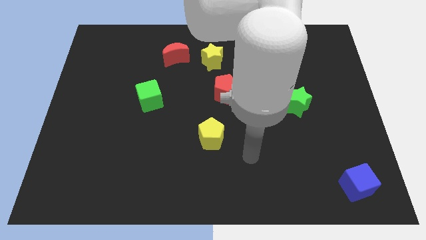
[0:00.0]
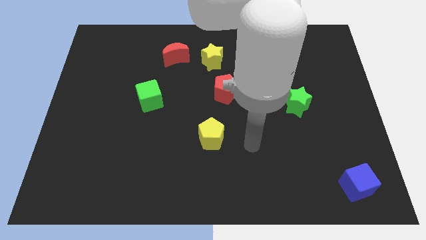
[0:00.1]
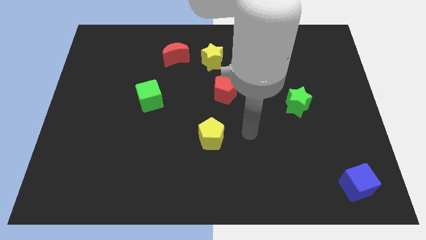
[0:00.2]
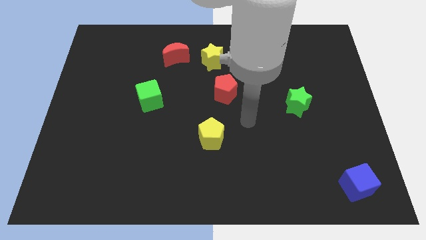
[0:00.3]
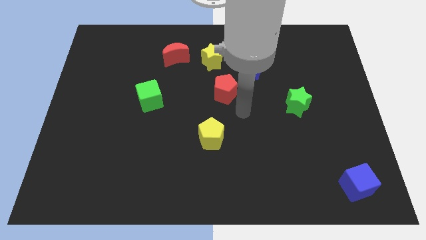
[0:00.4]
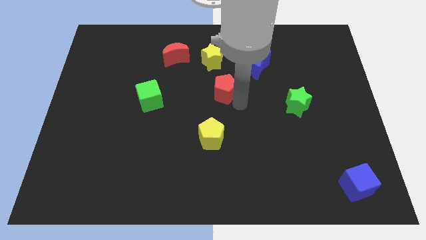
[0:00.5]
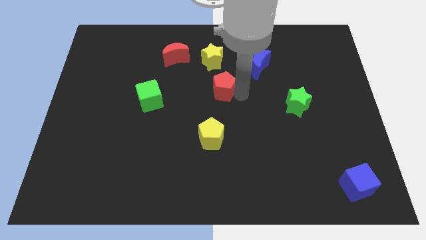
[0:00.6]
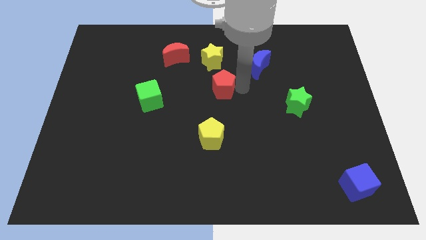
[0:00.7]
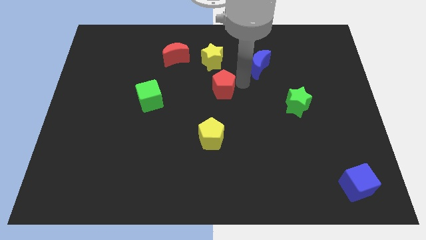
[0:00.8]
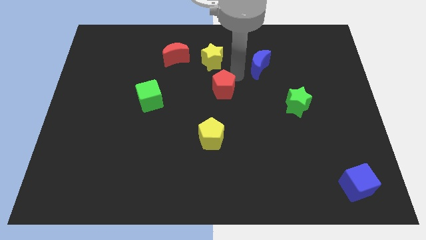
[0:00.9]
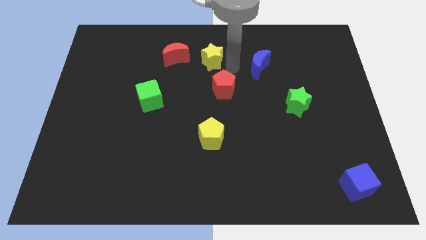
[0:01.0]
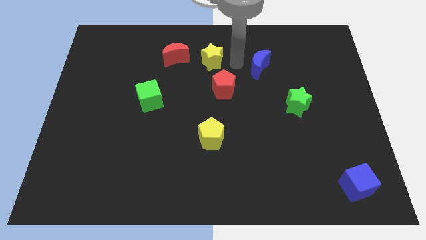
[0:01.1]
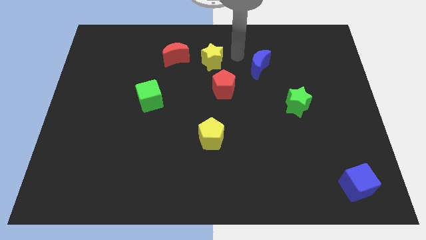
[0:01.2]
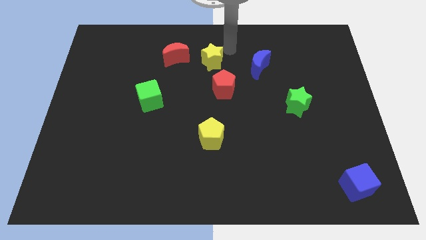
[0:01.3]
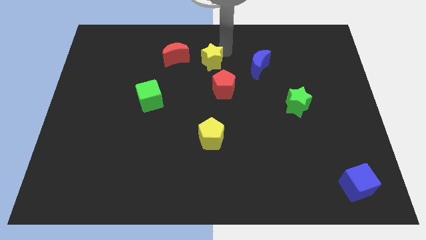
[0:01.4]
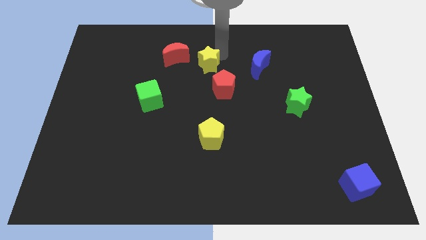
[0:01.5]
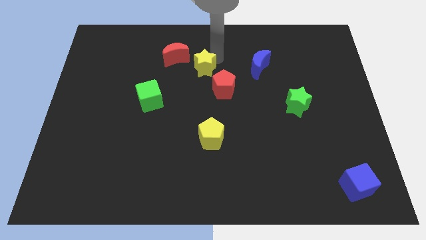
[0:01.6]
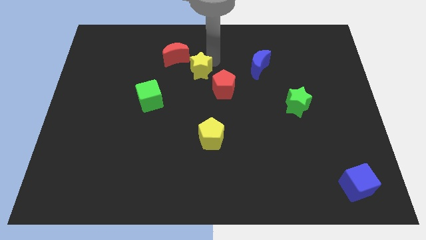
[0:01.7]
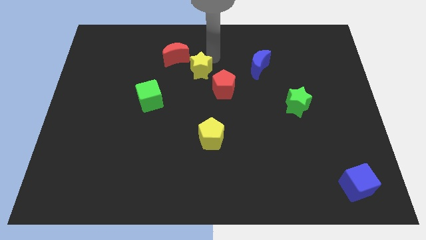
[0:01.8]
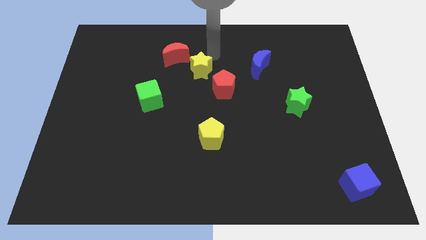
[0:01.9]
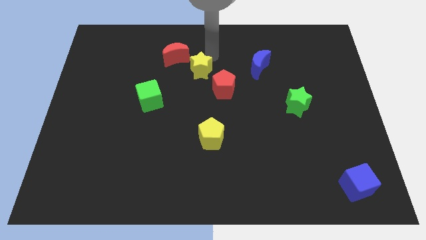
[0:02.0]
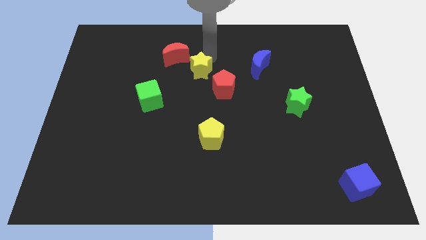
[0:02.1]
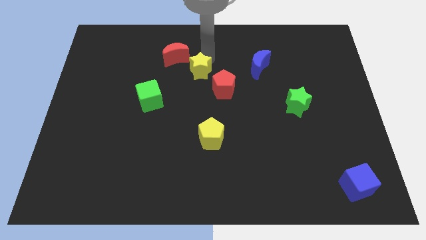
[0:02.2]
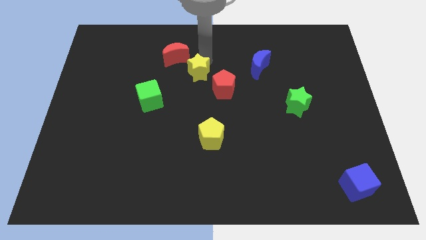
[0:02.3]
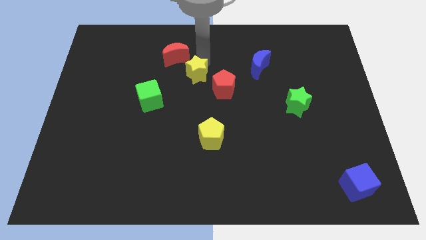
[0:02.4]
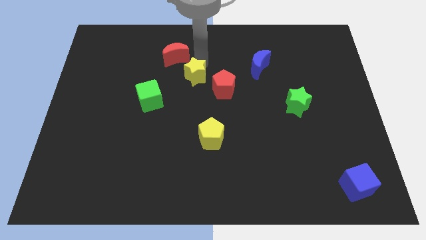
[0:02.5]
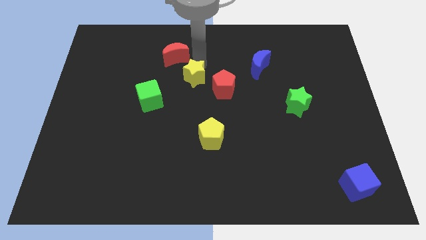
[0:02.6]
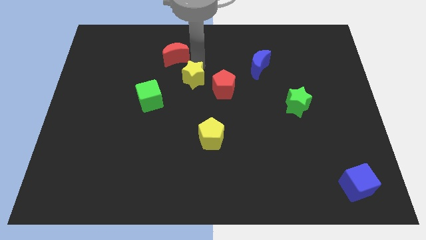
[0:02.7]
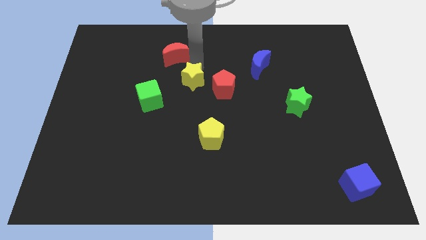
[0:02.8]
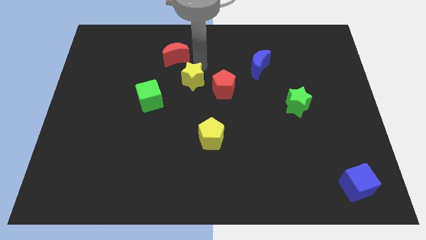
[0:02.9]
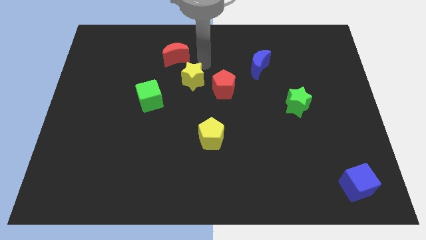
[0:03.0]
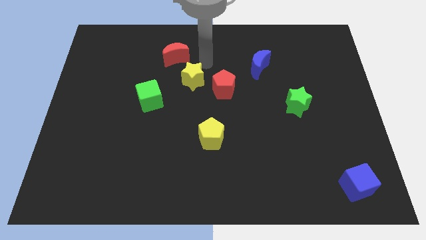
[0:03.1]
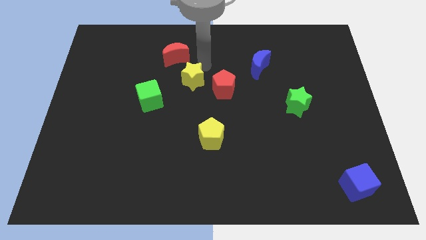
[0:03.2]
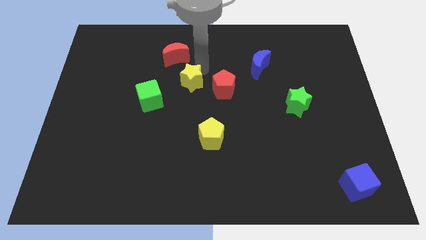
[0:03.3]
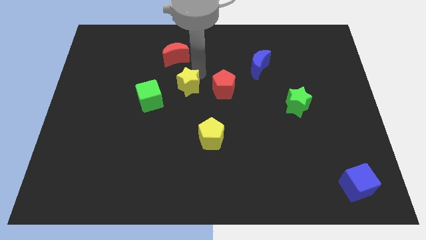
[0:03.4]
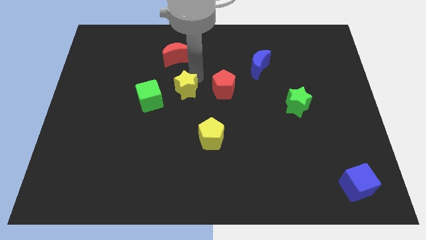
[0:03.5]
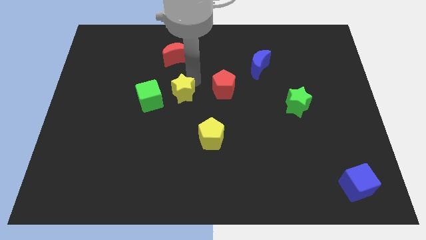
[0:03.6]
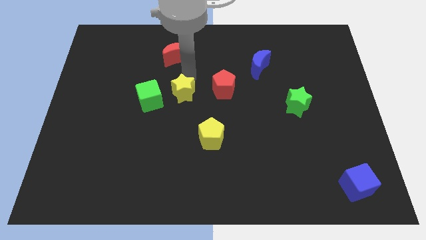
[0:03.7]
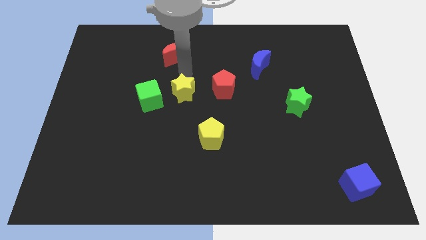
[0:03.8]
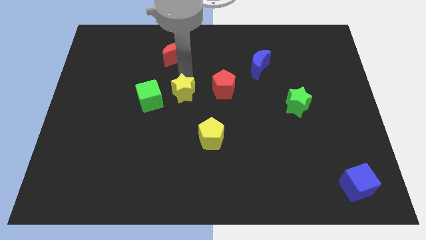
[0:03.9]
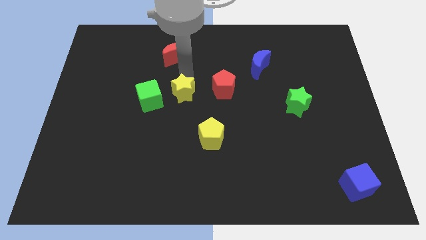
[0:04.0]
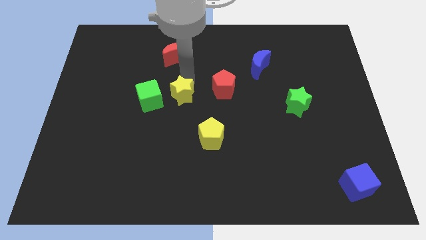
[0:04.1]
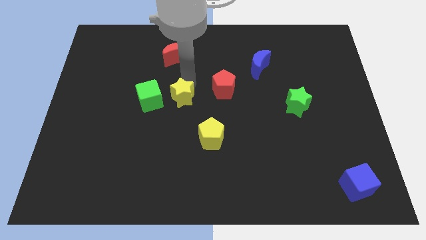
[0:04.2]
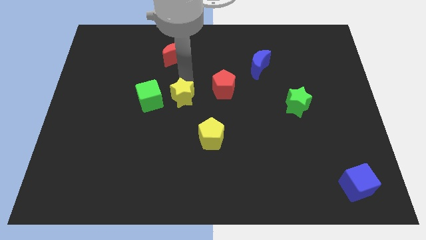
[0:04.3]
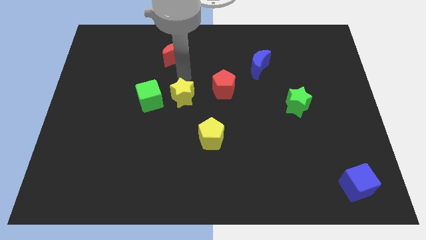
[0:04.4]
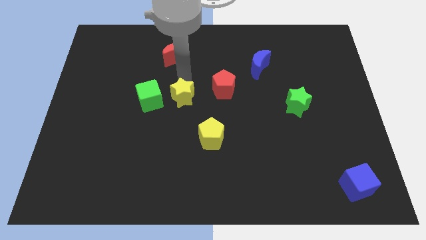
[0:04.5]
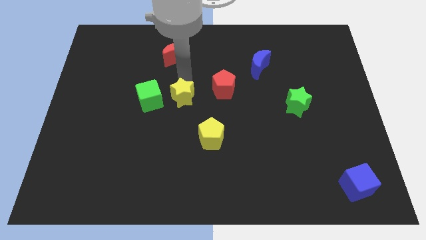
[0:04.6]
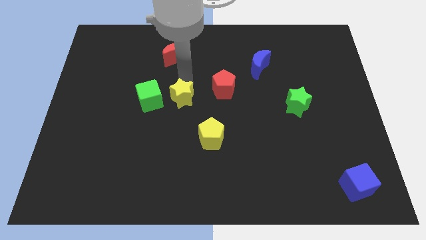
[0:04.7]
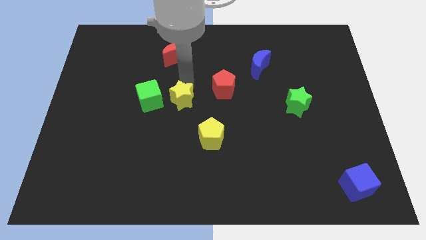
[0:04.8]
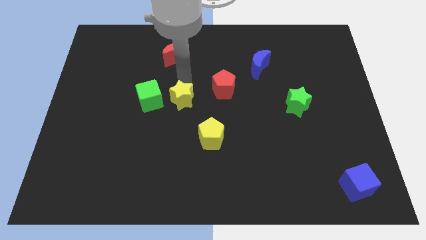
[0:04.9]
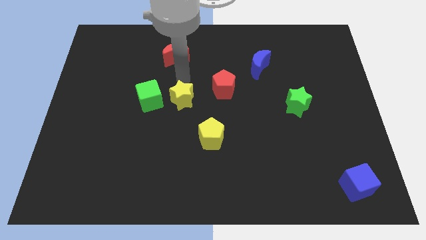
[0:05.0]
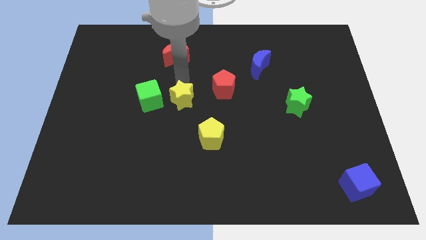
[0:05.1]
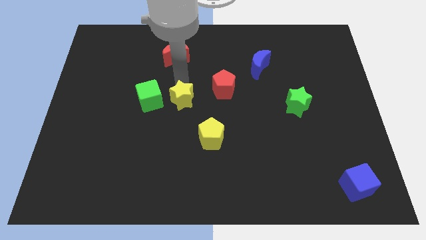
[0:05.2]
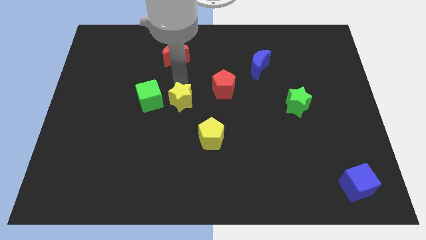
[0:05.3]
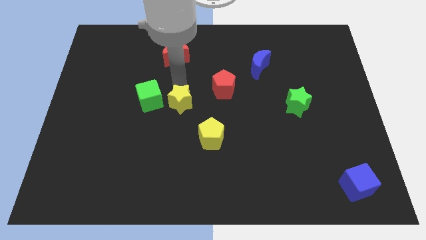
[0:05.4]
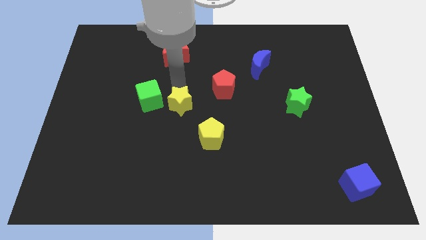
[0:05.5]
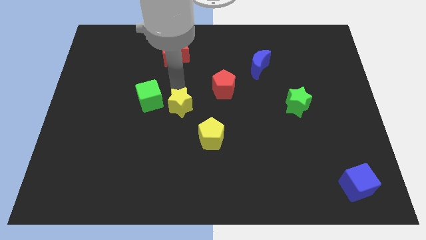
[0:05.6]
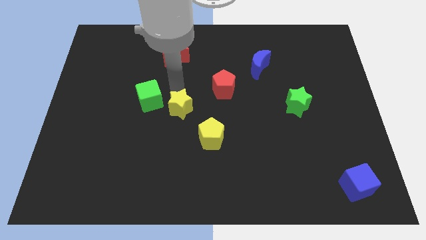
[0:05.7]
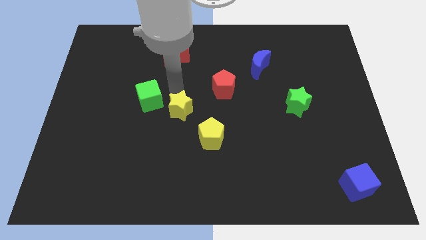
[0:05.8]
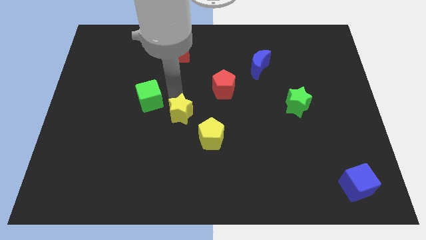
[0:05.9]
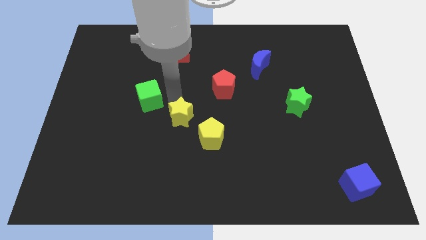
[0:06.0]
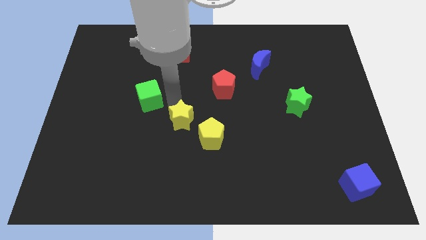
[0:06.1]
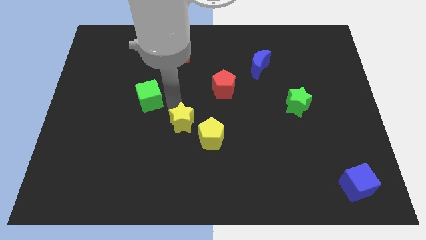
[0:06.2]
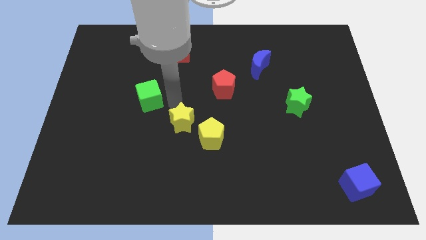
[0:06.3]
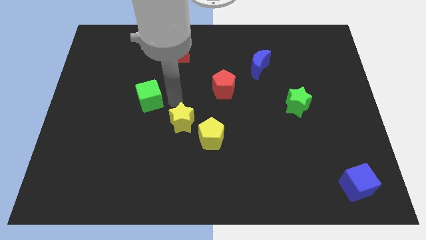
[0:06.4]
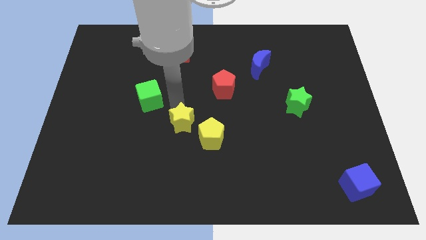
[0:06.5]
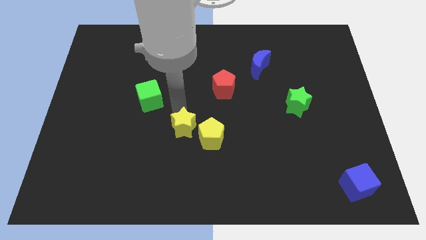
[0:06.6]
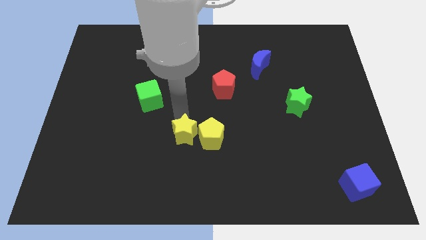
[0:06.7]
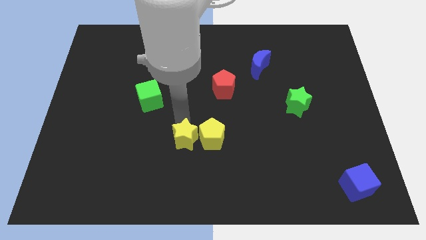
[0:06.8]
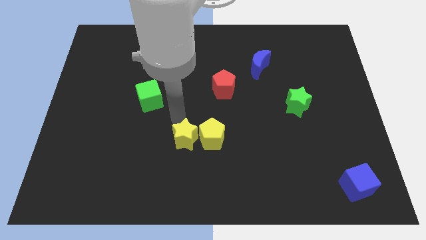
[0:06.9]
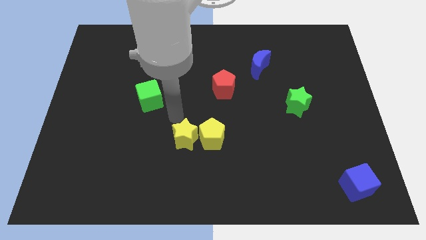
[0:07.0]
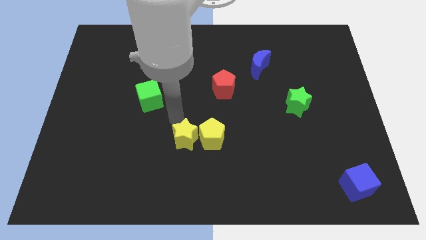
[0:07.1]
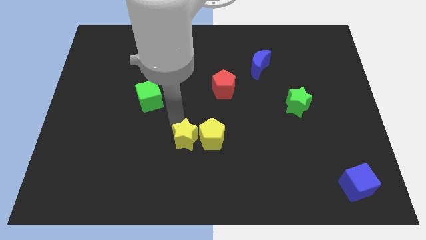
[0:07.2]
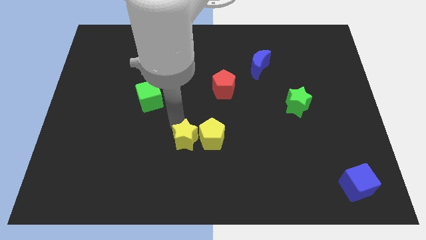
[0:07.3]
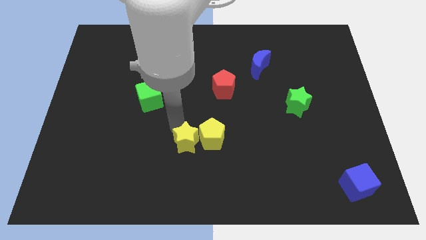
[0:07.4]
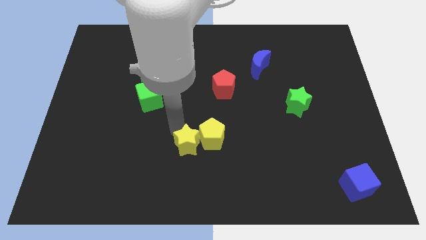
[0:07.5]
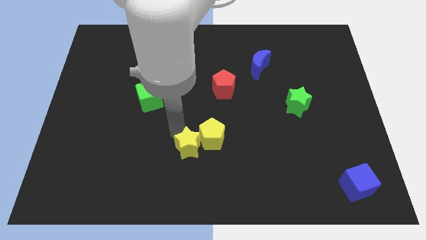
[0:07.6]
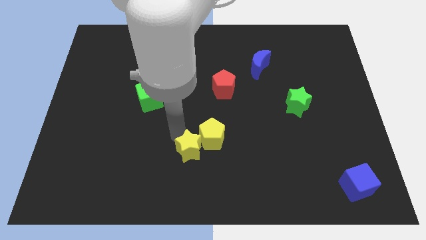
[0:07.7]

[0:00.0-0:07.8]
slide the yellow star to the bottom of the yellow pentagon
